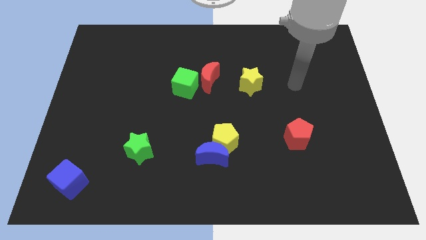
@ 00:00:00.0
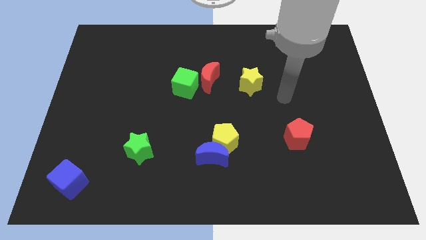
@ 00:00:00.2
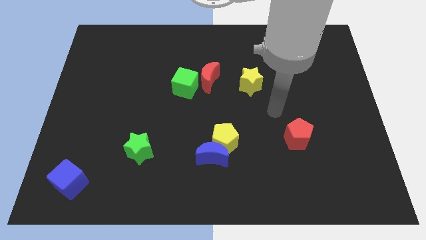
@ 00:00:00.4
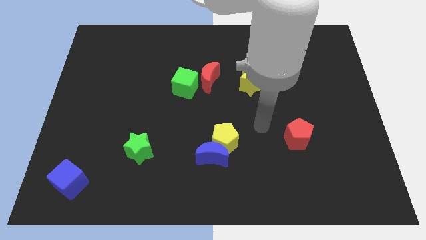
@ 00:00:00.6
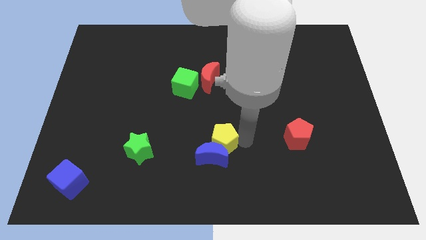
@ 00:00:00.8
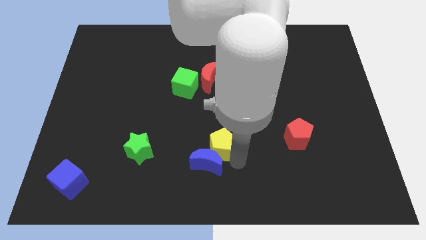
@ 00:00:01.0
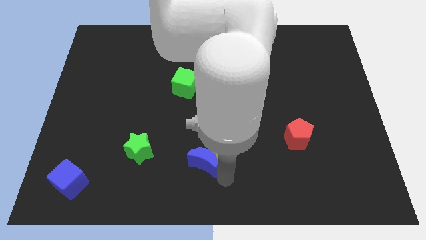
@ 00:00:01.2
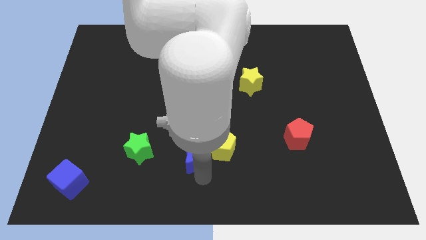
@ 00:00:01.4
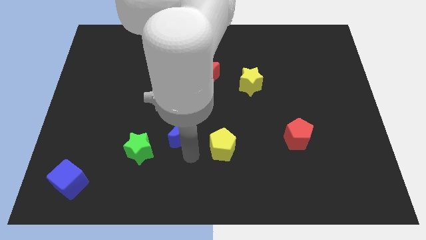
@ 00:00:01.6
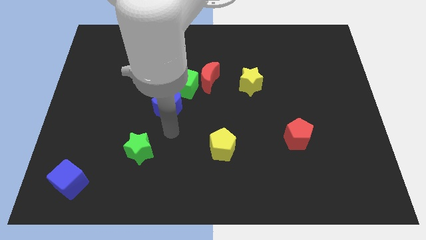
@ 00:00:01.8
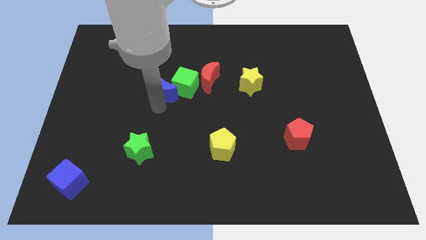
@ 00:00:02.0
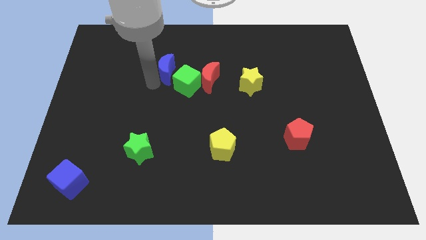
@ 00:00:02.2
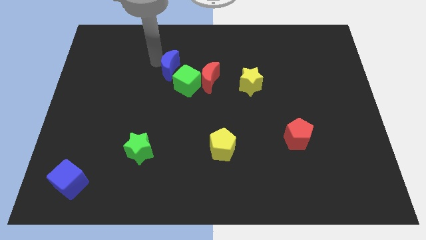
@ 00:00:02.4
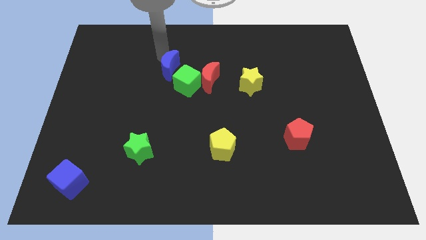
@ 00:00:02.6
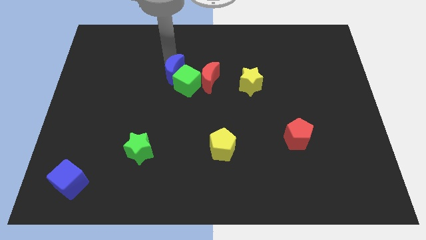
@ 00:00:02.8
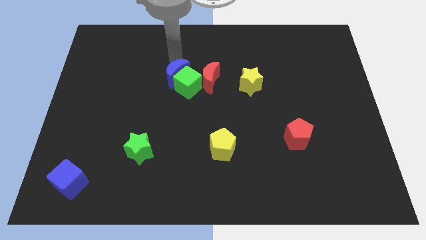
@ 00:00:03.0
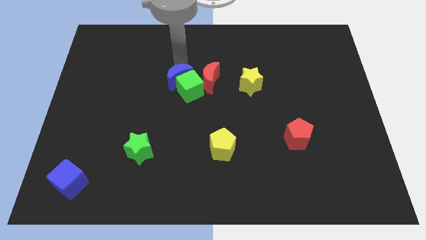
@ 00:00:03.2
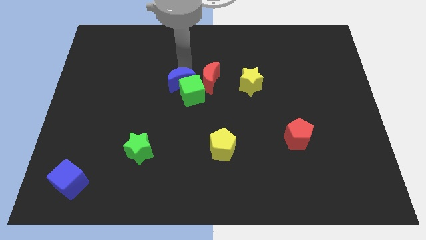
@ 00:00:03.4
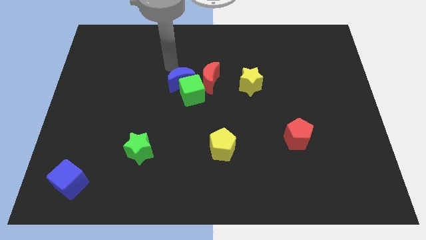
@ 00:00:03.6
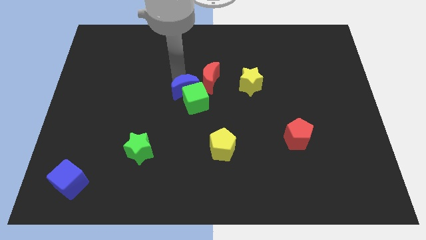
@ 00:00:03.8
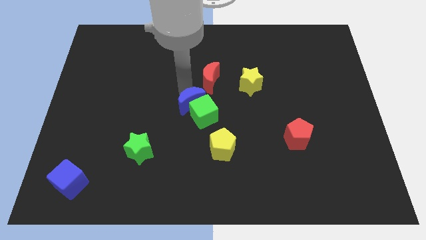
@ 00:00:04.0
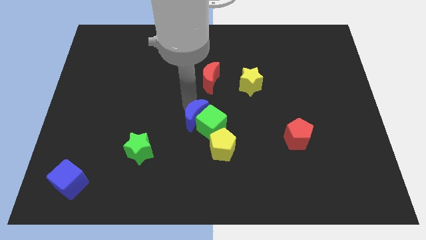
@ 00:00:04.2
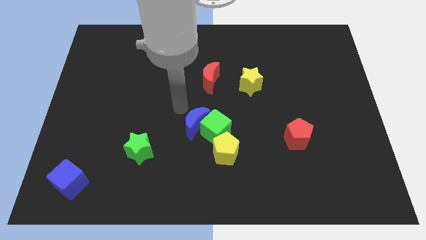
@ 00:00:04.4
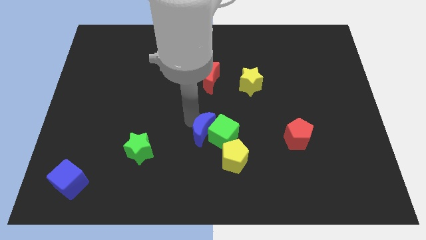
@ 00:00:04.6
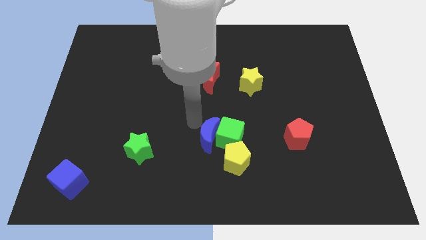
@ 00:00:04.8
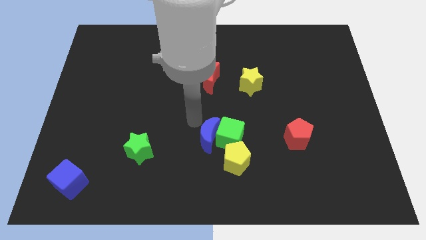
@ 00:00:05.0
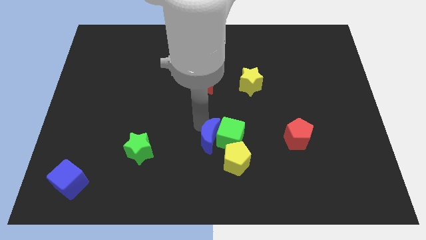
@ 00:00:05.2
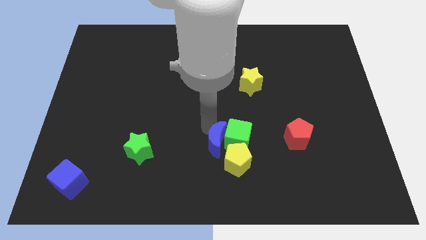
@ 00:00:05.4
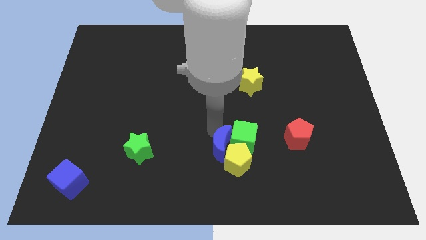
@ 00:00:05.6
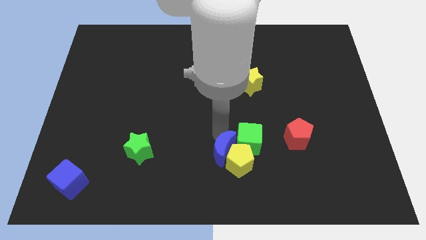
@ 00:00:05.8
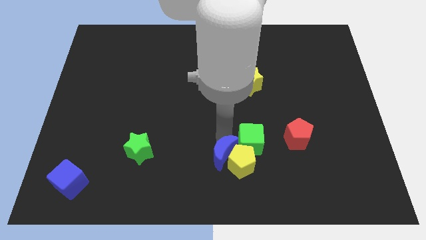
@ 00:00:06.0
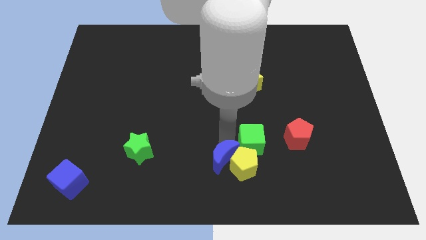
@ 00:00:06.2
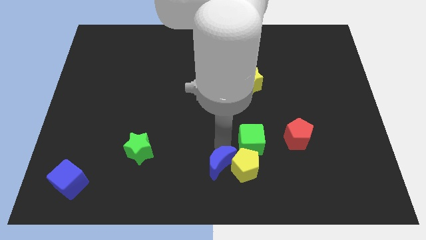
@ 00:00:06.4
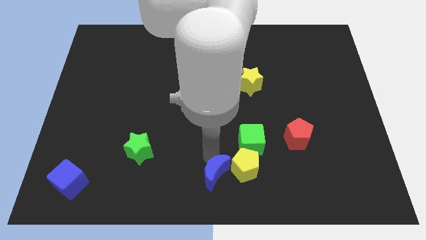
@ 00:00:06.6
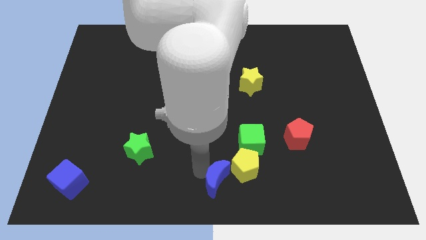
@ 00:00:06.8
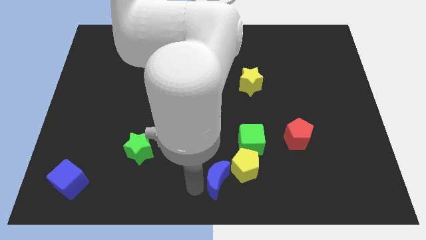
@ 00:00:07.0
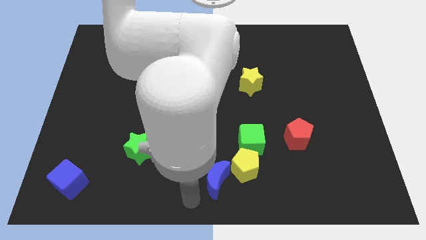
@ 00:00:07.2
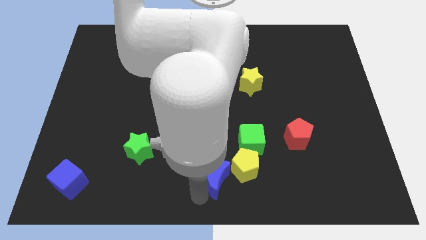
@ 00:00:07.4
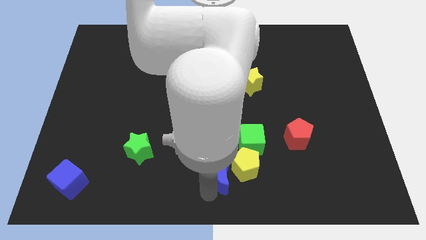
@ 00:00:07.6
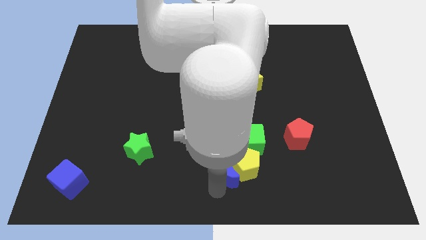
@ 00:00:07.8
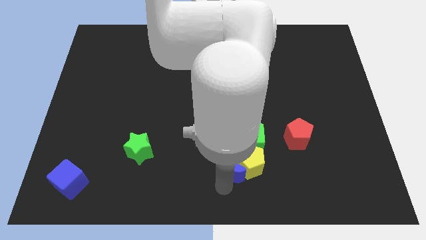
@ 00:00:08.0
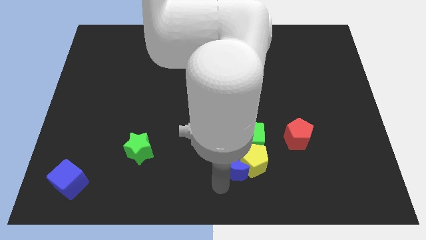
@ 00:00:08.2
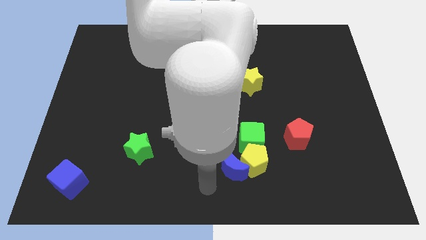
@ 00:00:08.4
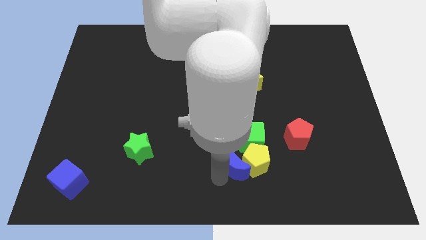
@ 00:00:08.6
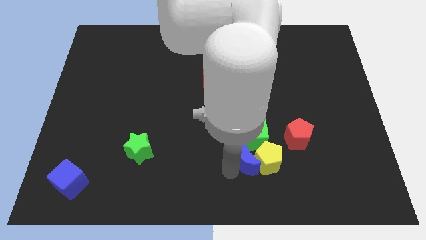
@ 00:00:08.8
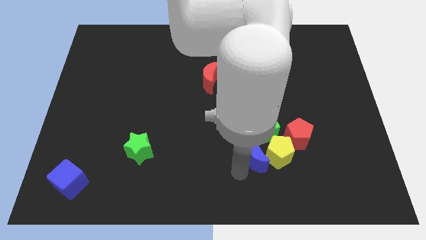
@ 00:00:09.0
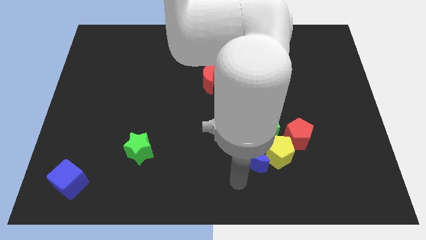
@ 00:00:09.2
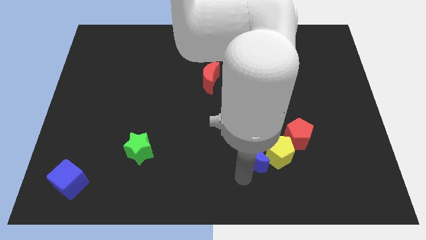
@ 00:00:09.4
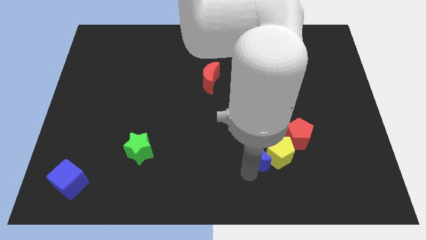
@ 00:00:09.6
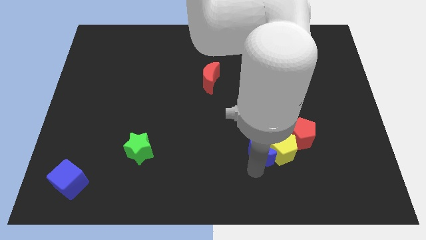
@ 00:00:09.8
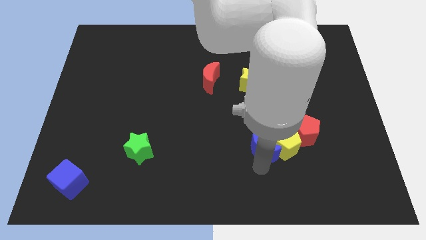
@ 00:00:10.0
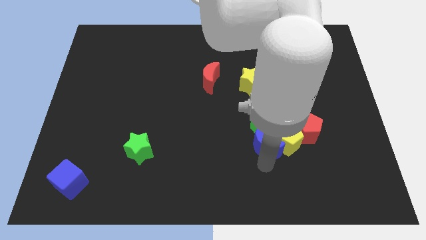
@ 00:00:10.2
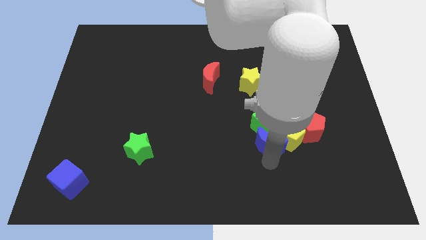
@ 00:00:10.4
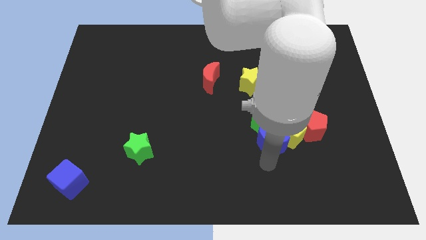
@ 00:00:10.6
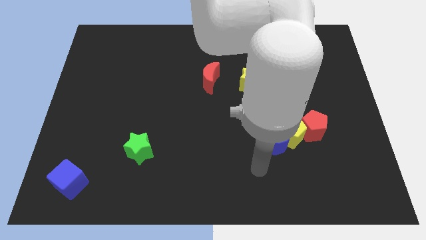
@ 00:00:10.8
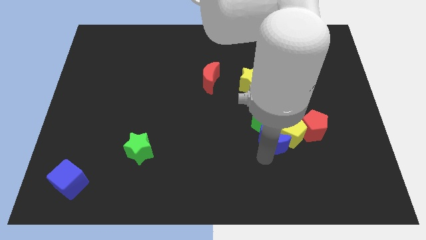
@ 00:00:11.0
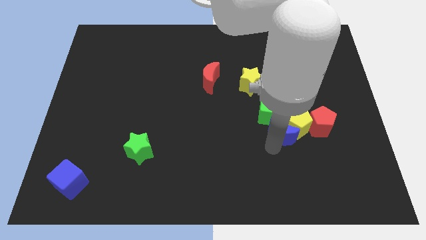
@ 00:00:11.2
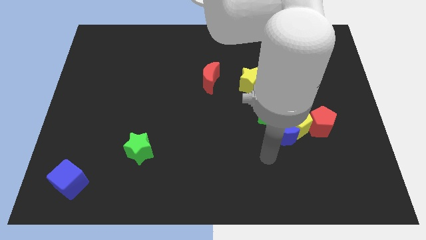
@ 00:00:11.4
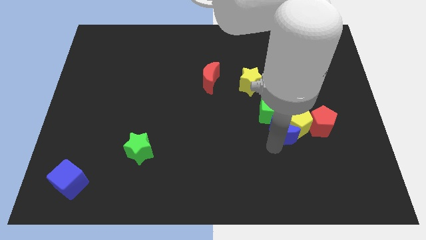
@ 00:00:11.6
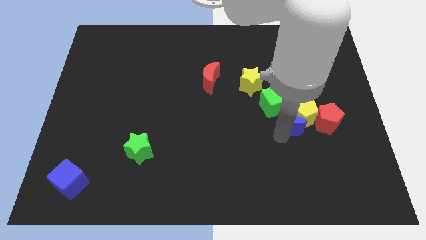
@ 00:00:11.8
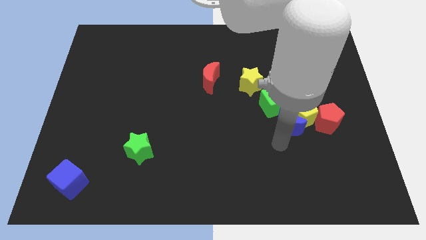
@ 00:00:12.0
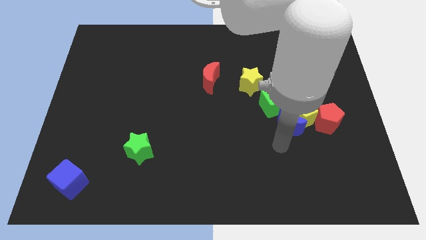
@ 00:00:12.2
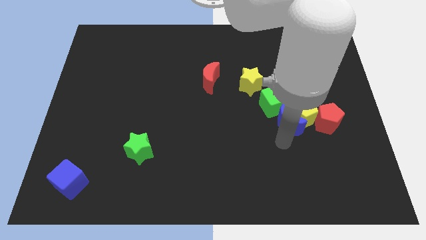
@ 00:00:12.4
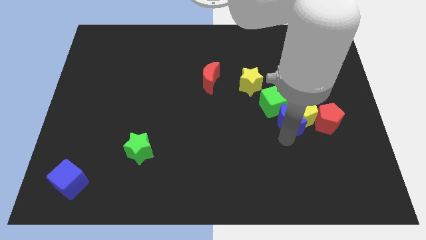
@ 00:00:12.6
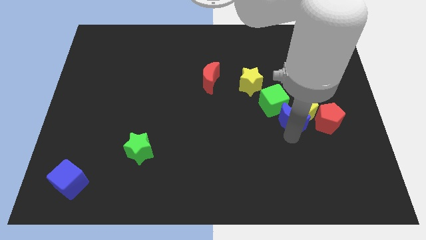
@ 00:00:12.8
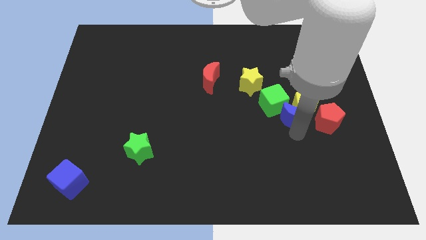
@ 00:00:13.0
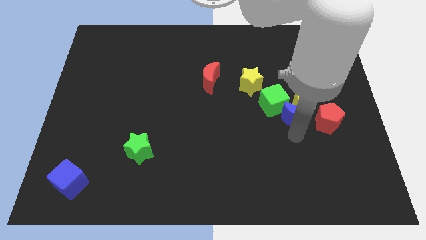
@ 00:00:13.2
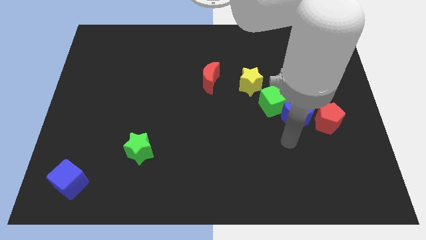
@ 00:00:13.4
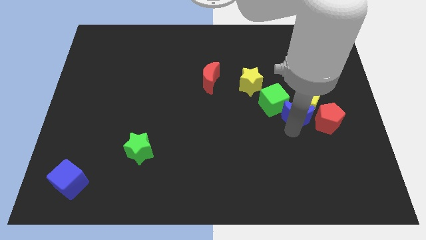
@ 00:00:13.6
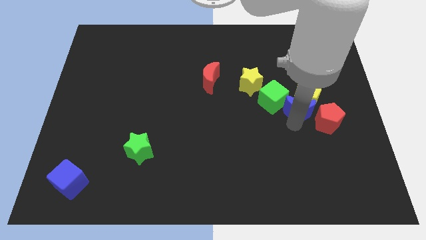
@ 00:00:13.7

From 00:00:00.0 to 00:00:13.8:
move the blue moon upwards and then to the right

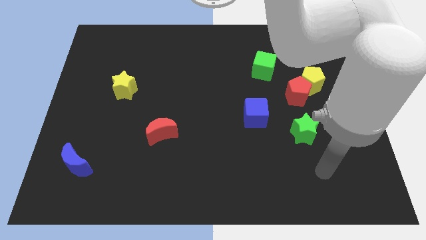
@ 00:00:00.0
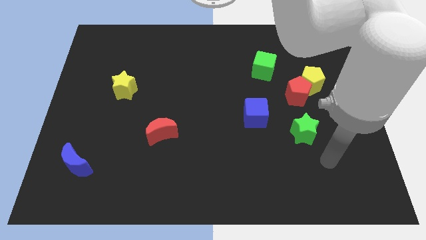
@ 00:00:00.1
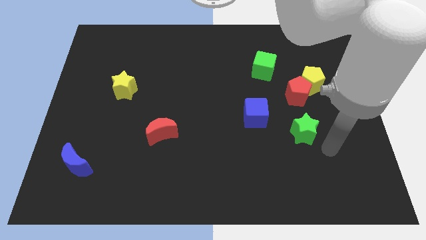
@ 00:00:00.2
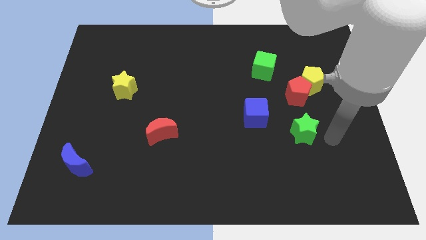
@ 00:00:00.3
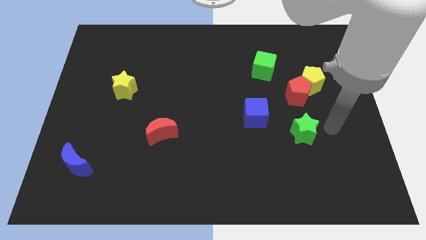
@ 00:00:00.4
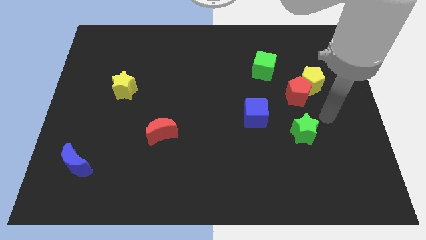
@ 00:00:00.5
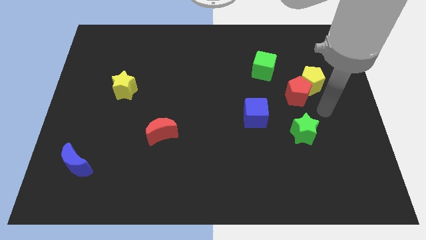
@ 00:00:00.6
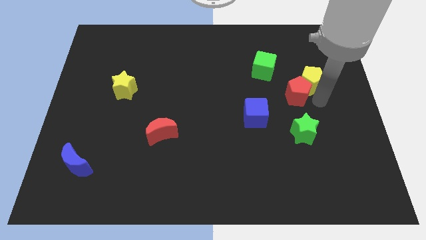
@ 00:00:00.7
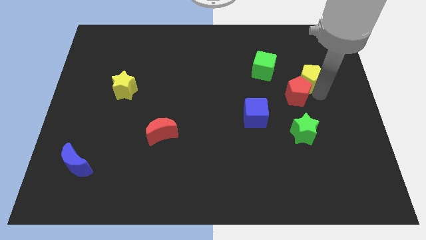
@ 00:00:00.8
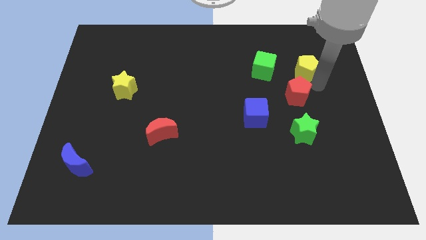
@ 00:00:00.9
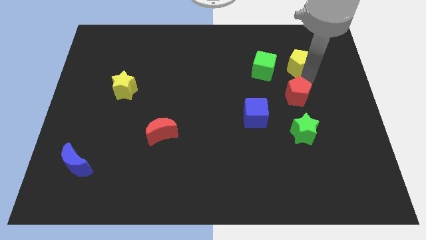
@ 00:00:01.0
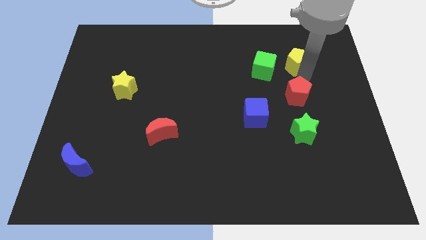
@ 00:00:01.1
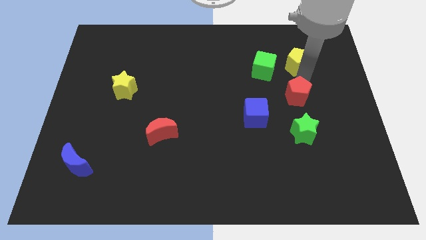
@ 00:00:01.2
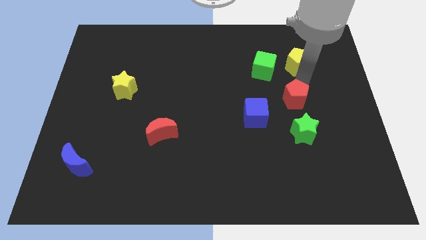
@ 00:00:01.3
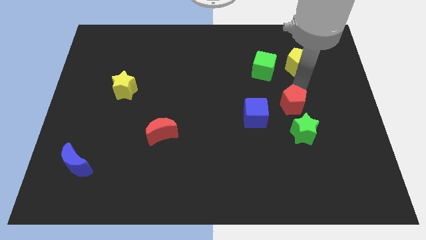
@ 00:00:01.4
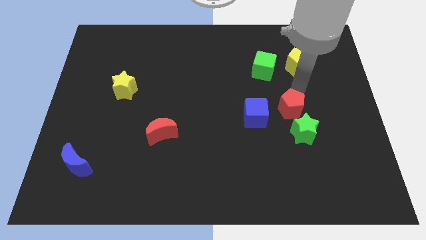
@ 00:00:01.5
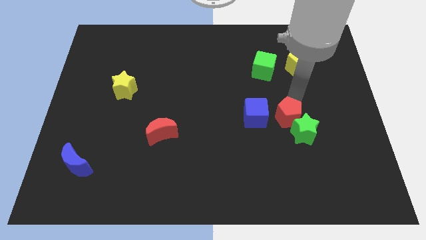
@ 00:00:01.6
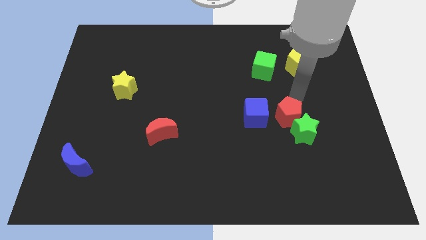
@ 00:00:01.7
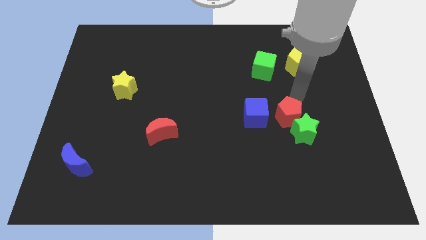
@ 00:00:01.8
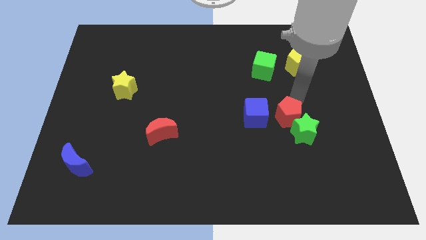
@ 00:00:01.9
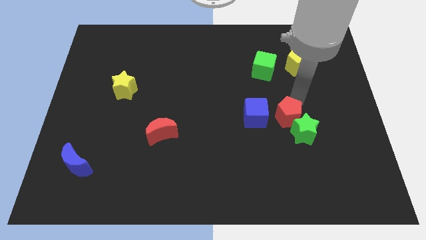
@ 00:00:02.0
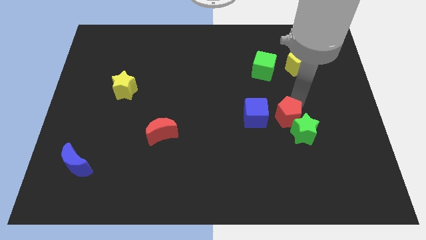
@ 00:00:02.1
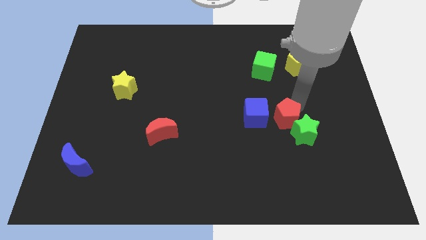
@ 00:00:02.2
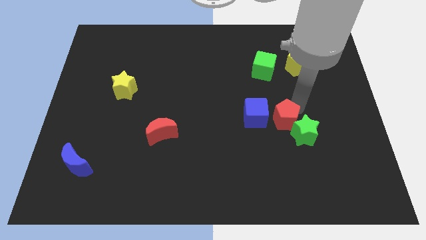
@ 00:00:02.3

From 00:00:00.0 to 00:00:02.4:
slide the red pentagon somewhat downwards
